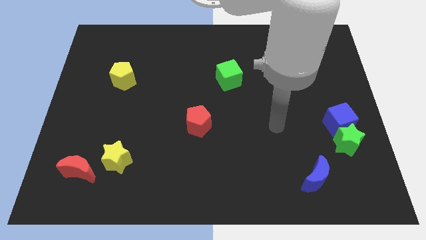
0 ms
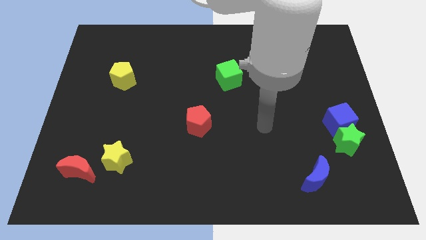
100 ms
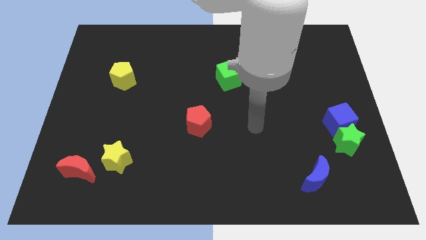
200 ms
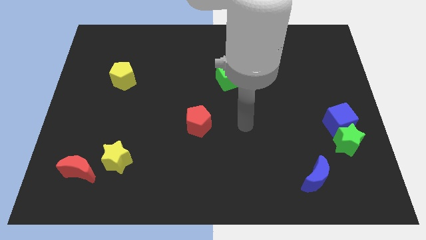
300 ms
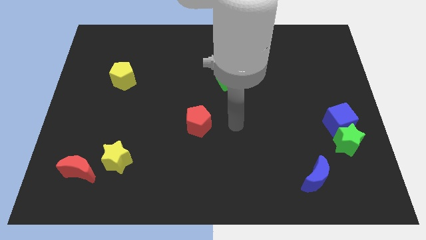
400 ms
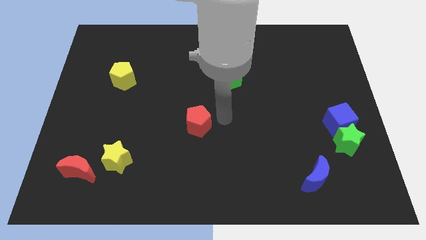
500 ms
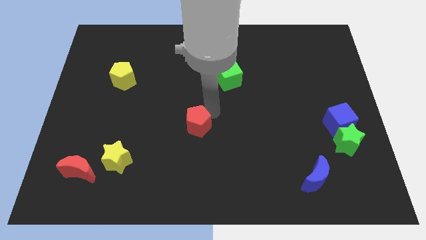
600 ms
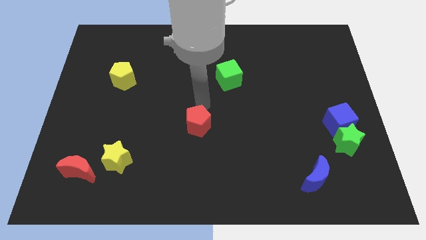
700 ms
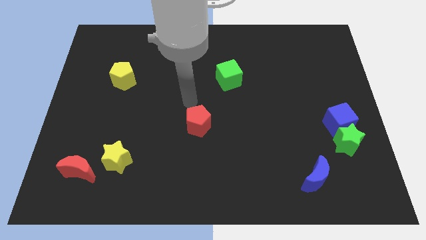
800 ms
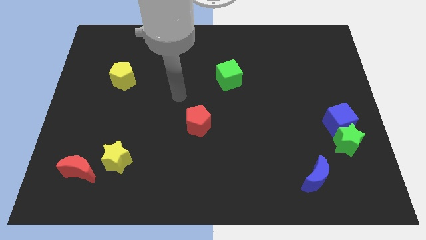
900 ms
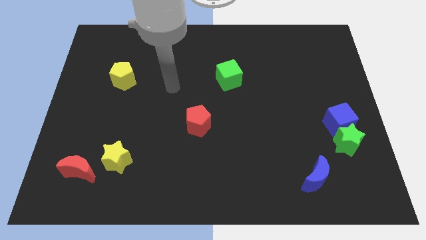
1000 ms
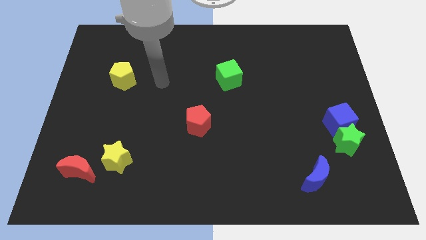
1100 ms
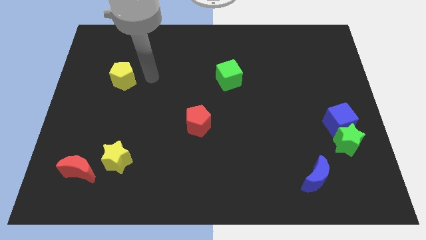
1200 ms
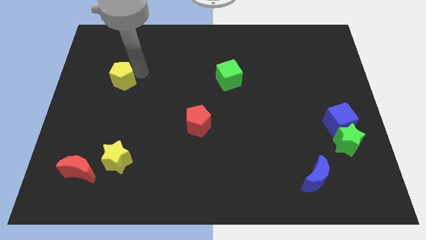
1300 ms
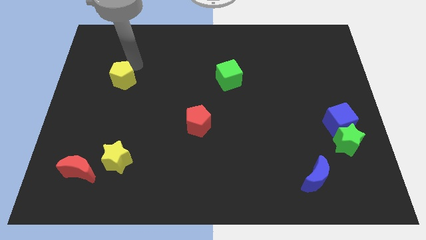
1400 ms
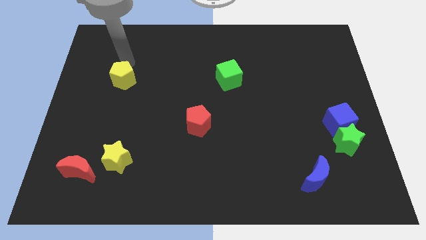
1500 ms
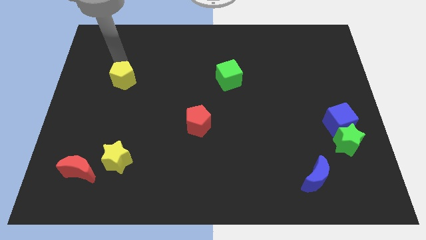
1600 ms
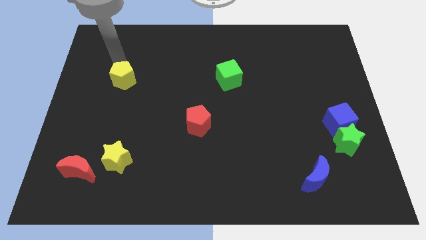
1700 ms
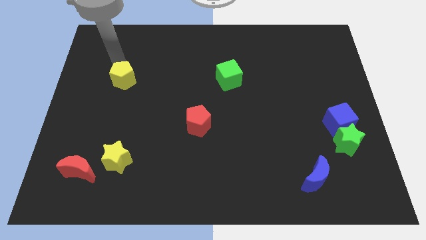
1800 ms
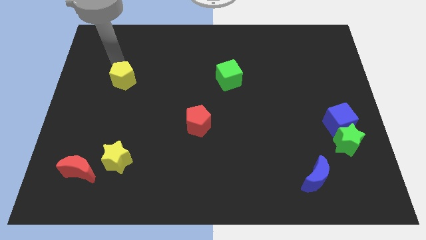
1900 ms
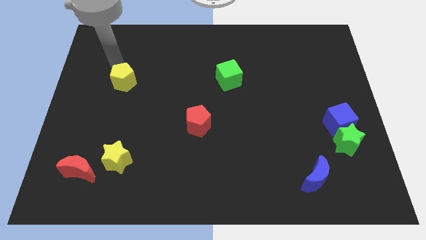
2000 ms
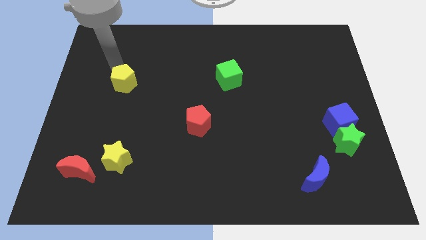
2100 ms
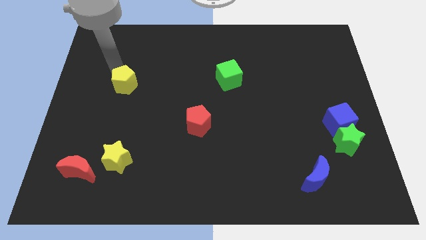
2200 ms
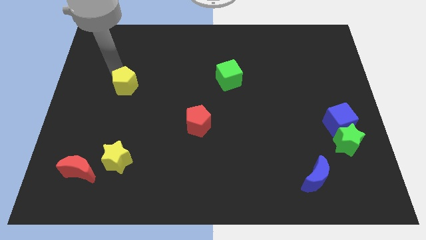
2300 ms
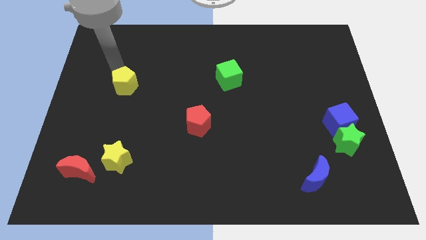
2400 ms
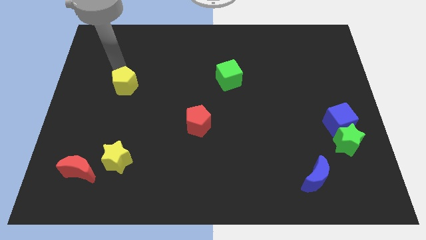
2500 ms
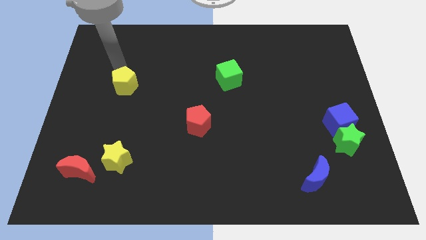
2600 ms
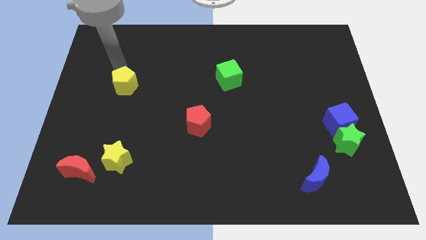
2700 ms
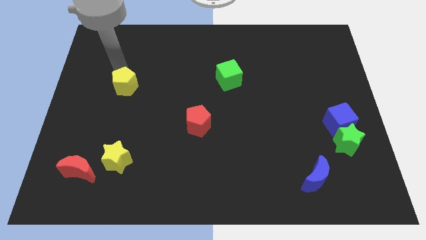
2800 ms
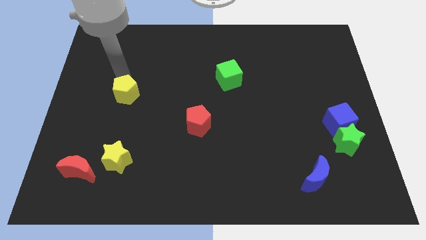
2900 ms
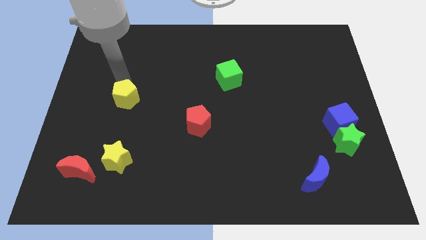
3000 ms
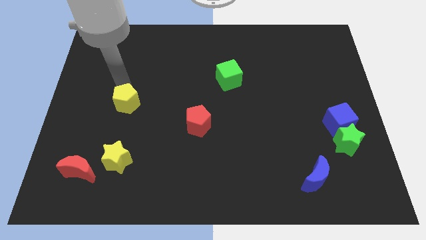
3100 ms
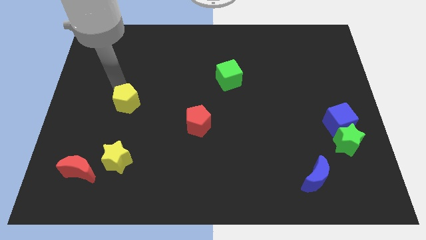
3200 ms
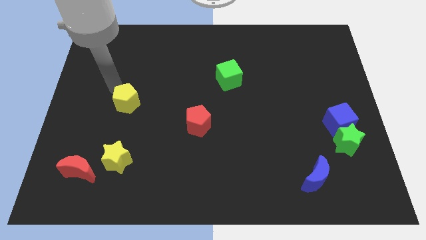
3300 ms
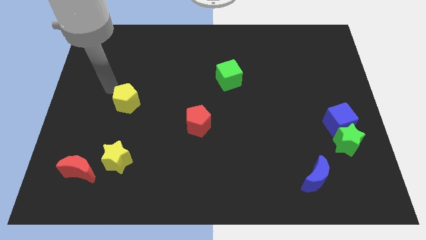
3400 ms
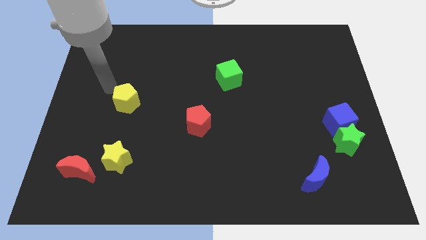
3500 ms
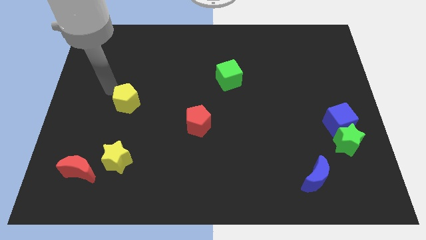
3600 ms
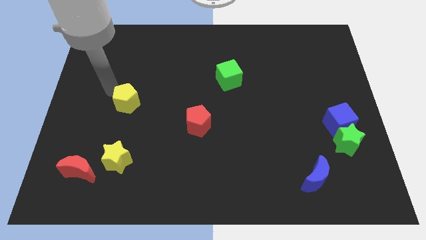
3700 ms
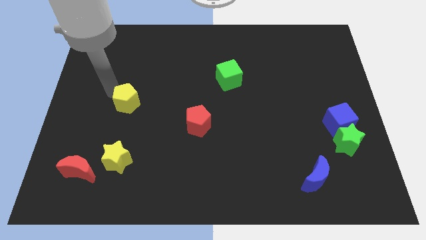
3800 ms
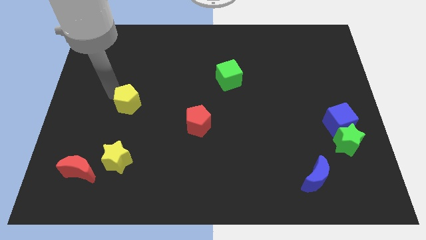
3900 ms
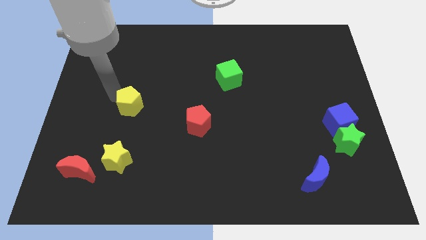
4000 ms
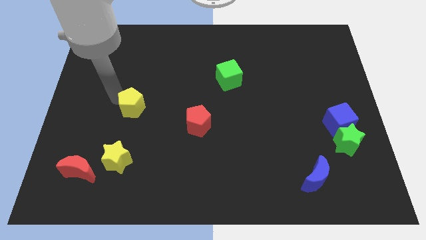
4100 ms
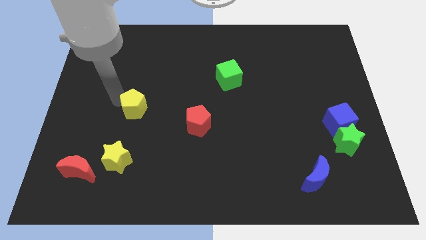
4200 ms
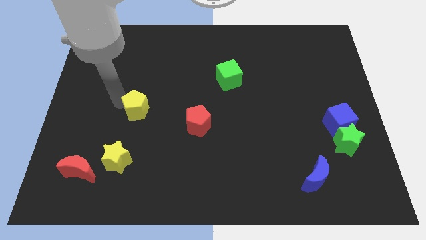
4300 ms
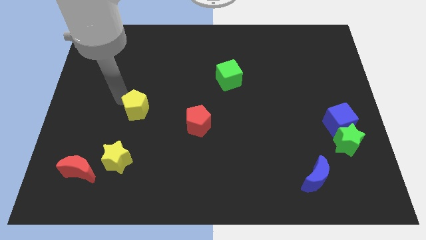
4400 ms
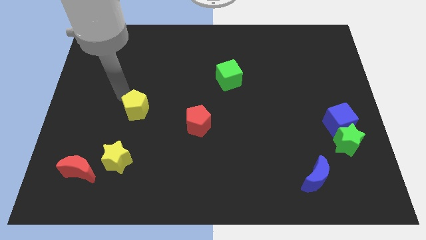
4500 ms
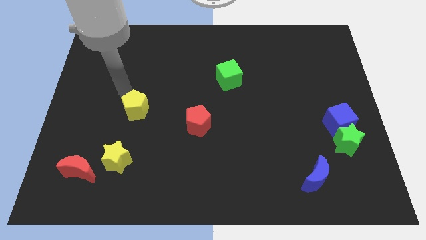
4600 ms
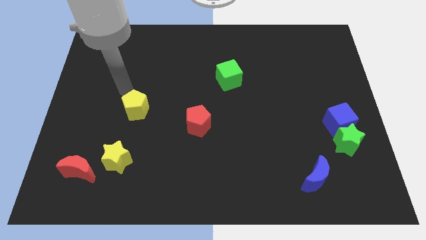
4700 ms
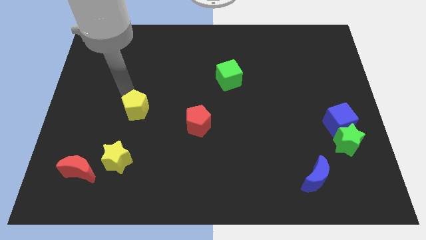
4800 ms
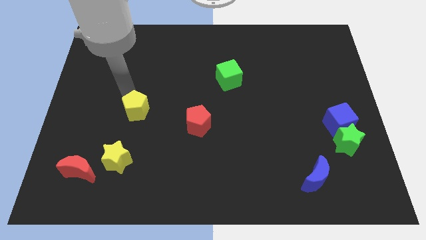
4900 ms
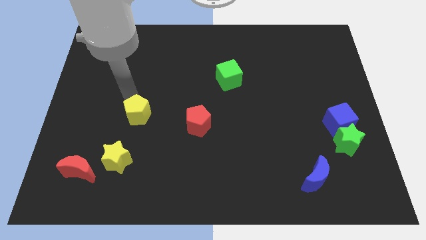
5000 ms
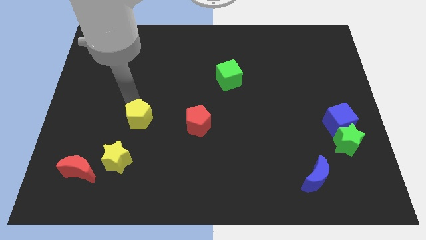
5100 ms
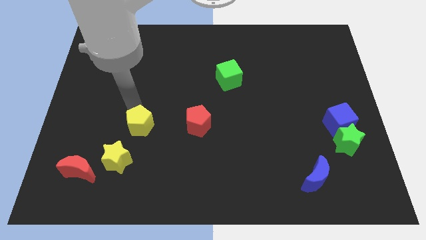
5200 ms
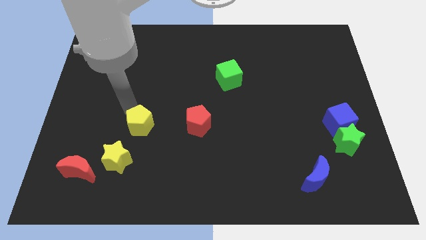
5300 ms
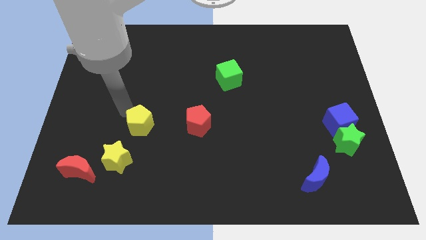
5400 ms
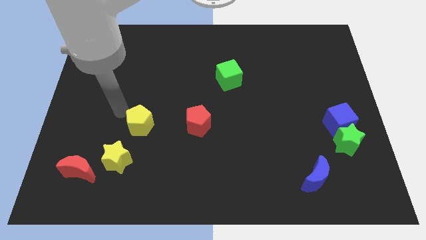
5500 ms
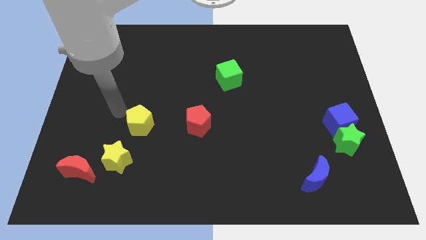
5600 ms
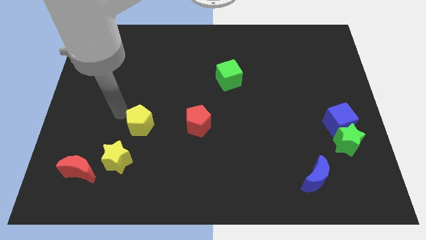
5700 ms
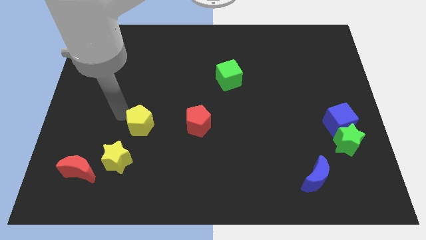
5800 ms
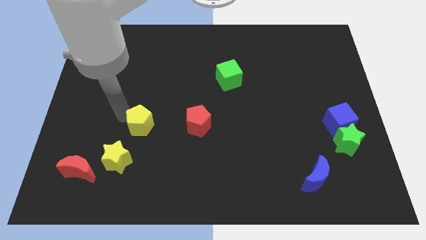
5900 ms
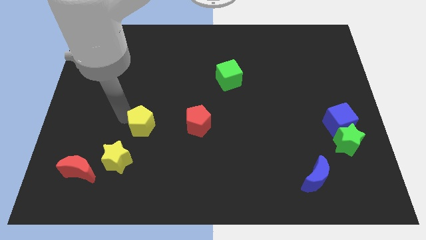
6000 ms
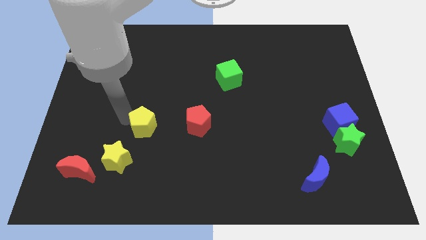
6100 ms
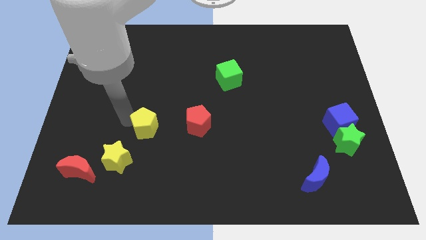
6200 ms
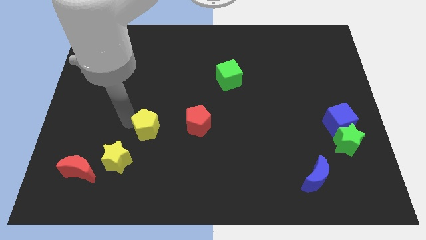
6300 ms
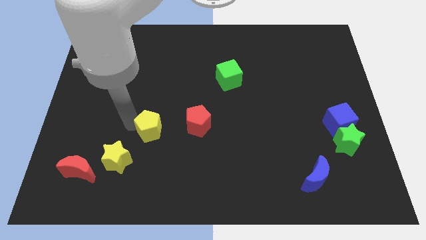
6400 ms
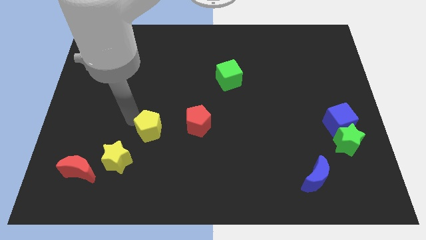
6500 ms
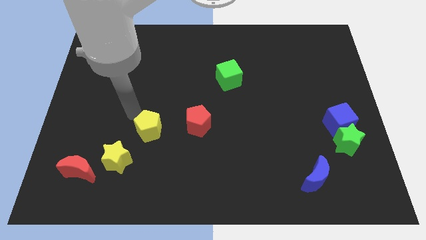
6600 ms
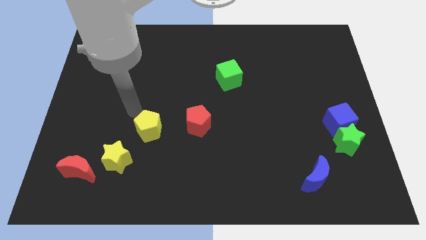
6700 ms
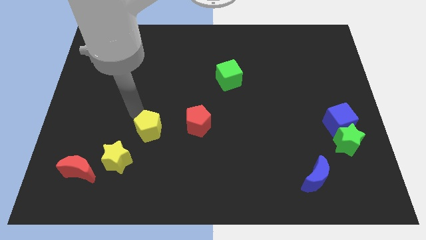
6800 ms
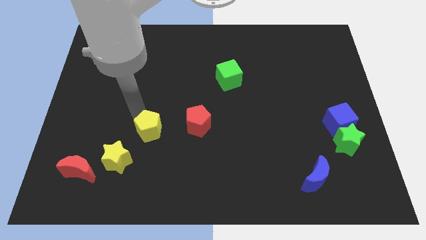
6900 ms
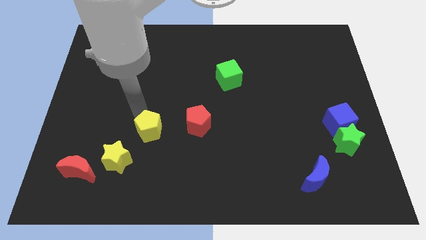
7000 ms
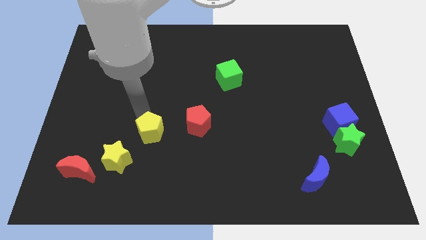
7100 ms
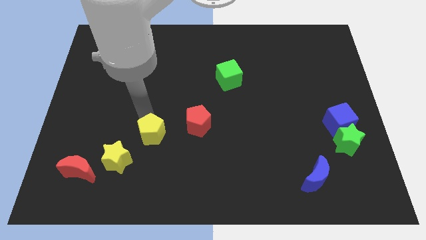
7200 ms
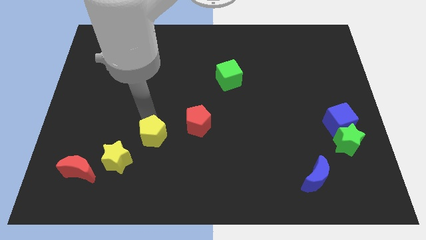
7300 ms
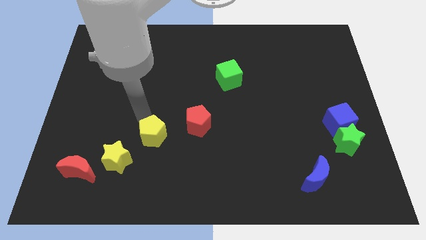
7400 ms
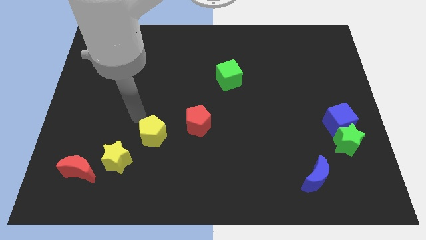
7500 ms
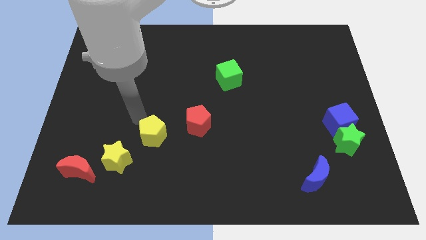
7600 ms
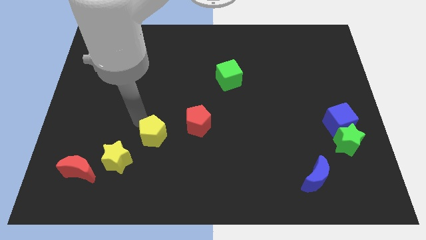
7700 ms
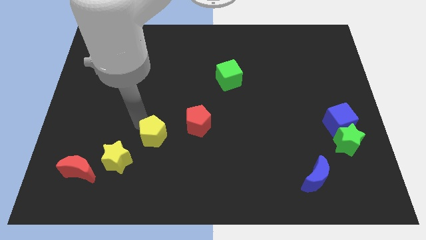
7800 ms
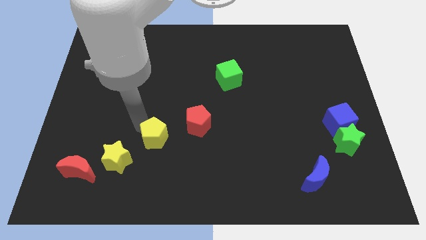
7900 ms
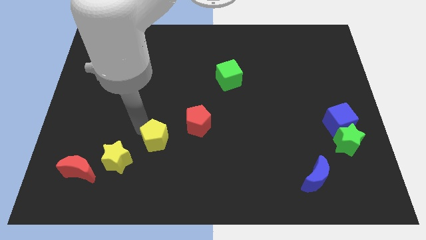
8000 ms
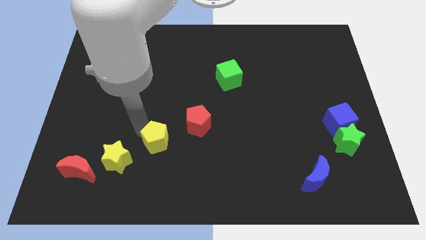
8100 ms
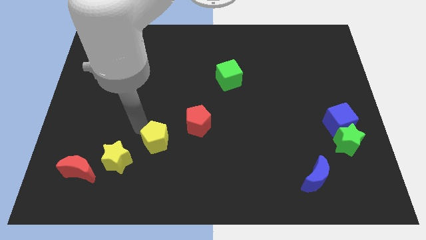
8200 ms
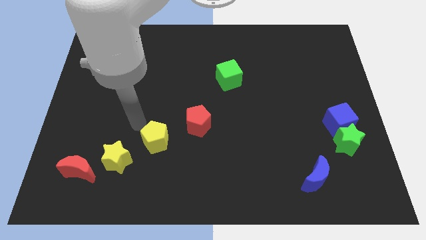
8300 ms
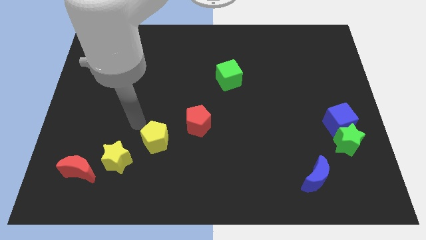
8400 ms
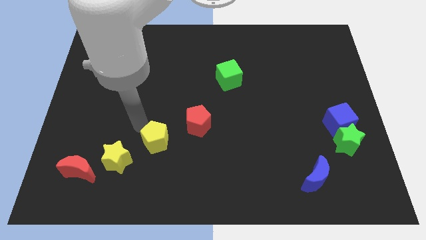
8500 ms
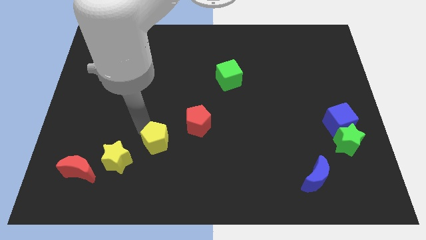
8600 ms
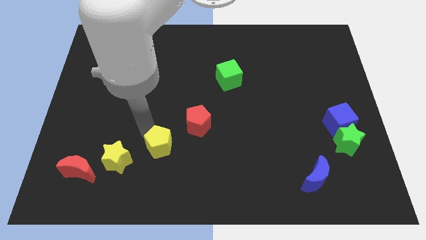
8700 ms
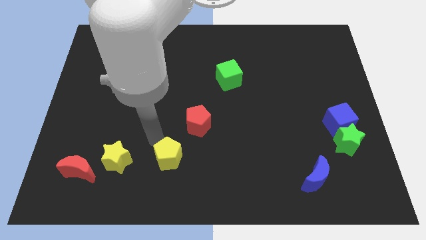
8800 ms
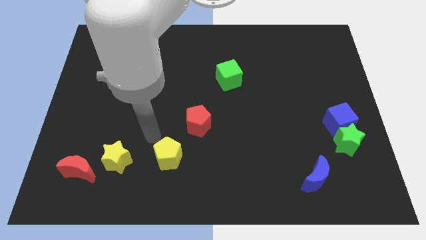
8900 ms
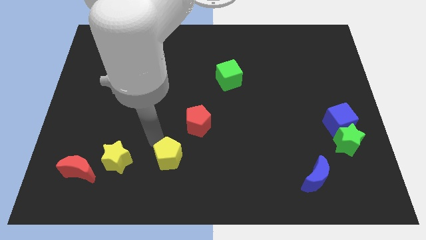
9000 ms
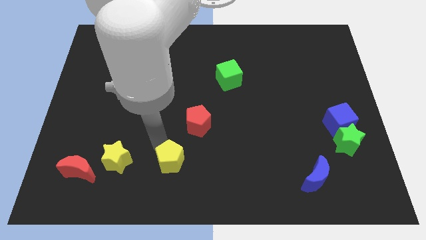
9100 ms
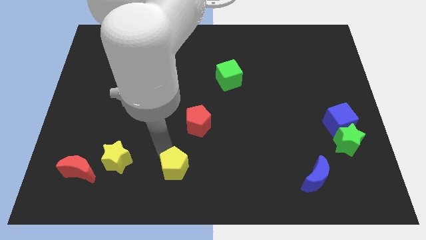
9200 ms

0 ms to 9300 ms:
push the yellow pentagon to the bottom side
